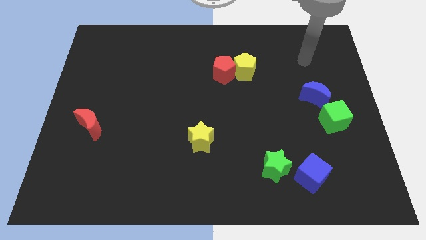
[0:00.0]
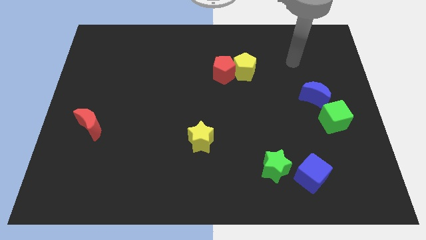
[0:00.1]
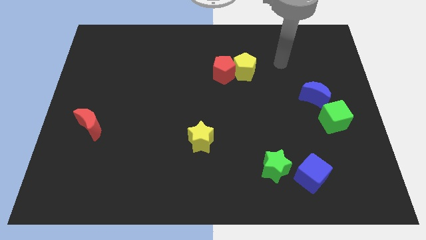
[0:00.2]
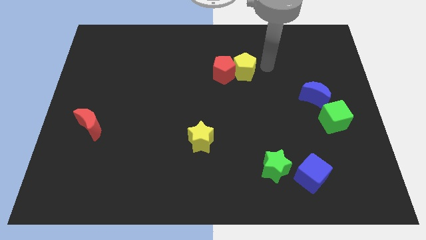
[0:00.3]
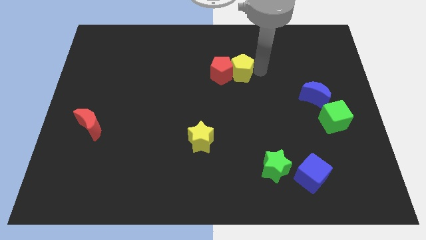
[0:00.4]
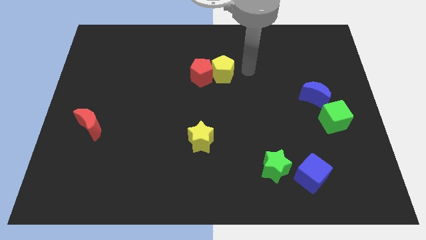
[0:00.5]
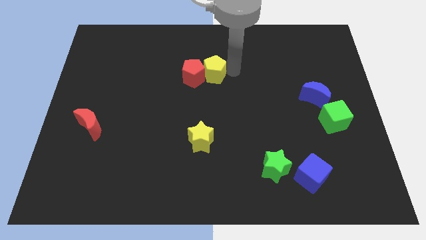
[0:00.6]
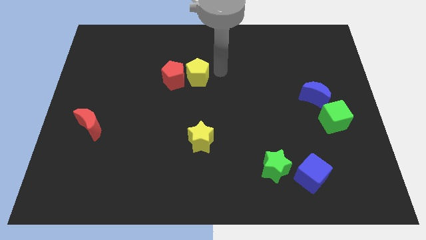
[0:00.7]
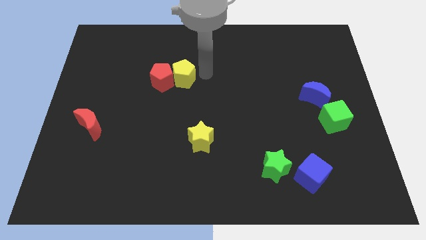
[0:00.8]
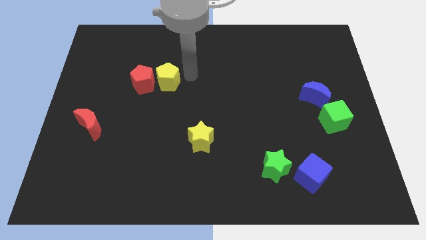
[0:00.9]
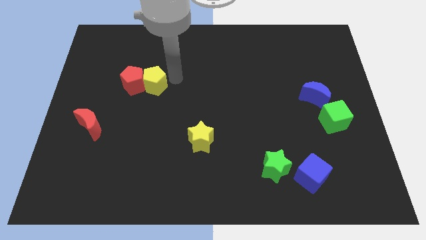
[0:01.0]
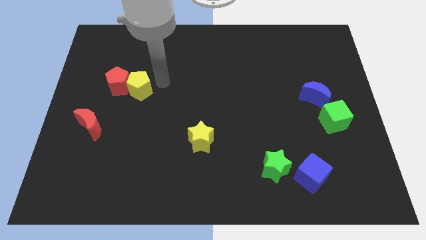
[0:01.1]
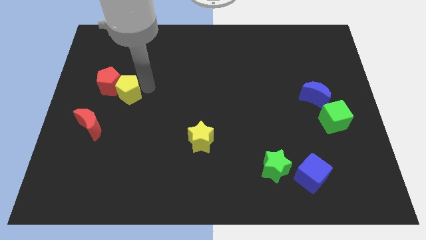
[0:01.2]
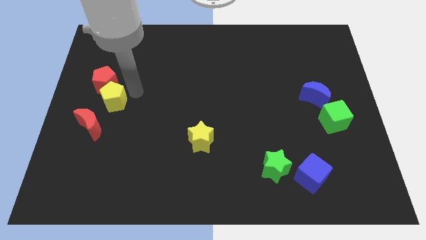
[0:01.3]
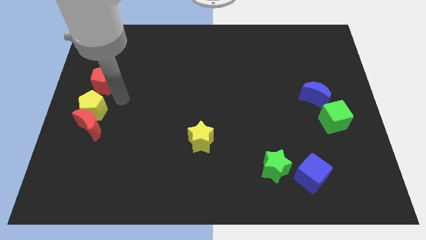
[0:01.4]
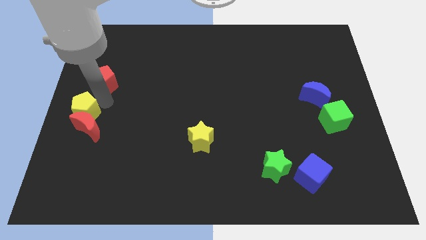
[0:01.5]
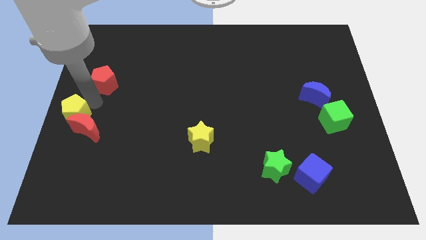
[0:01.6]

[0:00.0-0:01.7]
move the red pentagon away from the yellow pentagon

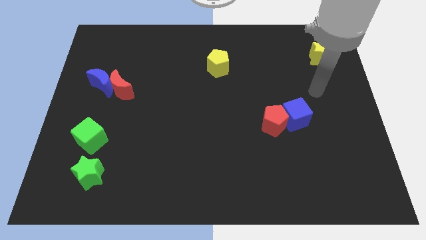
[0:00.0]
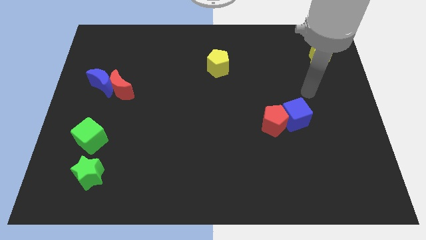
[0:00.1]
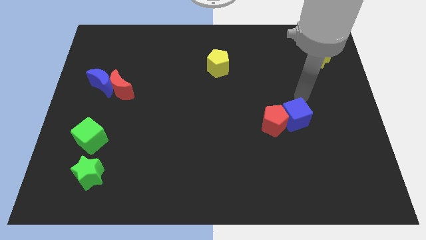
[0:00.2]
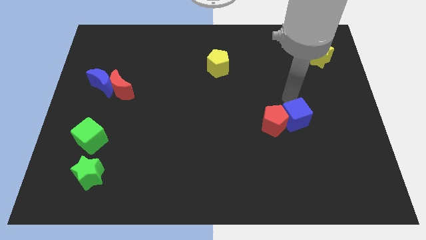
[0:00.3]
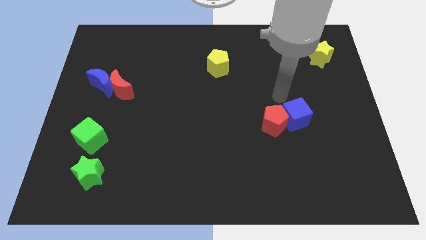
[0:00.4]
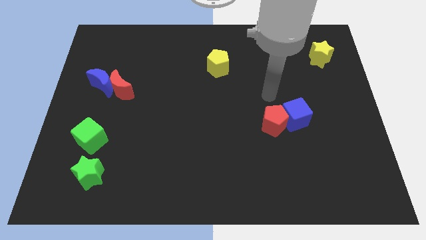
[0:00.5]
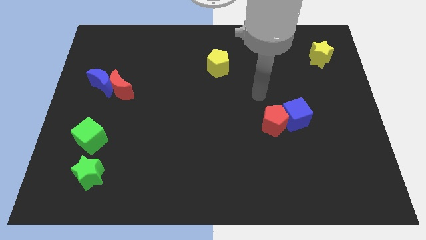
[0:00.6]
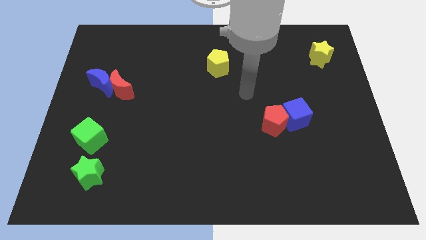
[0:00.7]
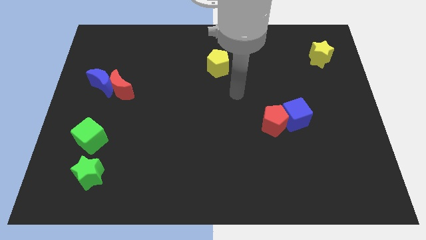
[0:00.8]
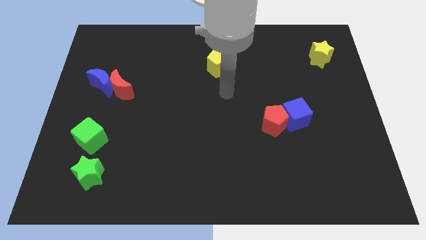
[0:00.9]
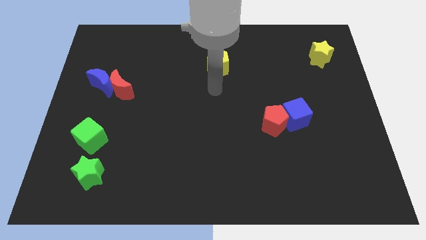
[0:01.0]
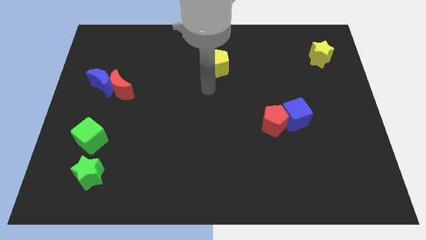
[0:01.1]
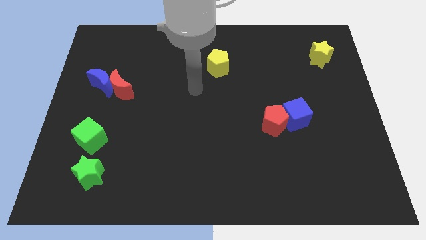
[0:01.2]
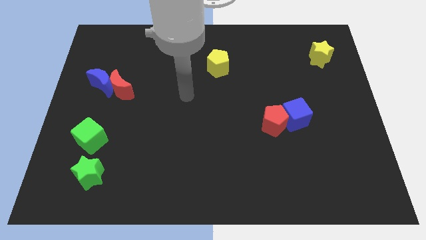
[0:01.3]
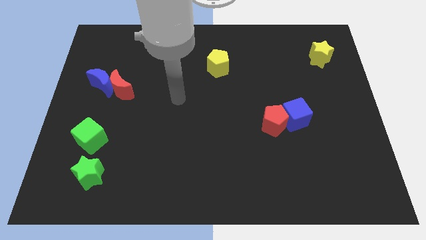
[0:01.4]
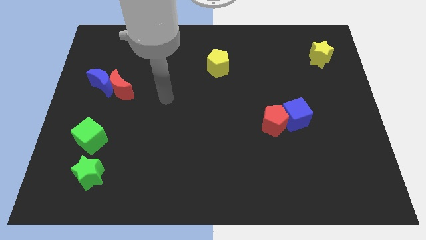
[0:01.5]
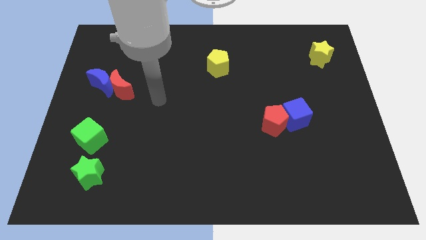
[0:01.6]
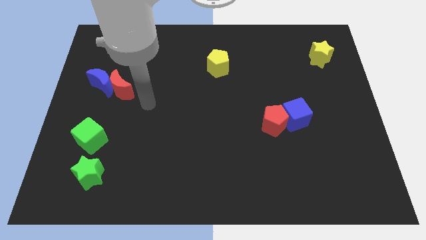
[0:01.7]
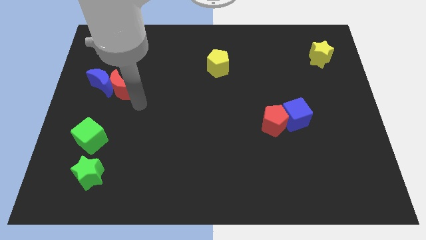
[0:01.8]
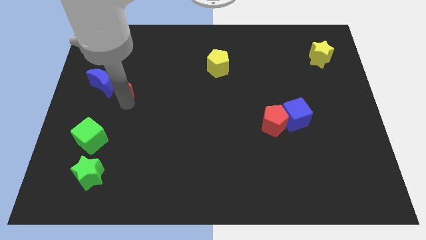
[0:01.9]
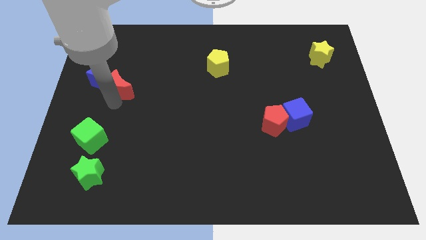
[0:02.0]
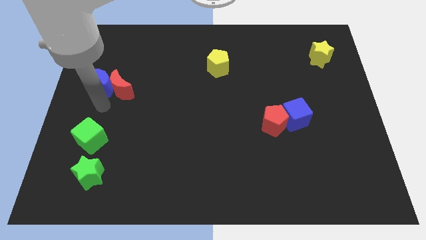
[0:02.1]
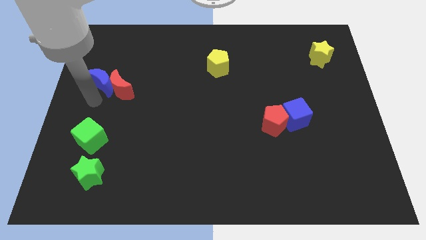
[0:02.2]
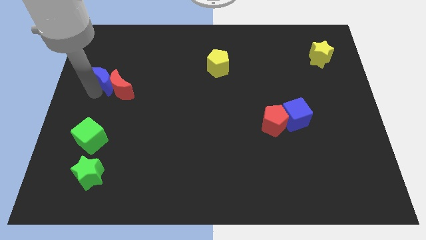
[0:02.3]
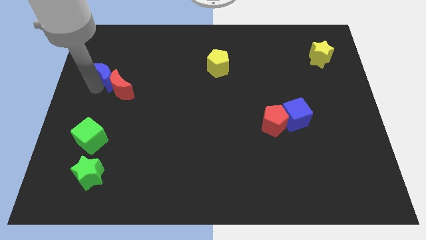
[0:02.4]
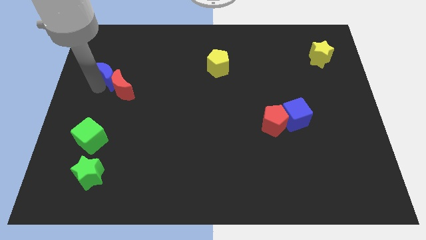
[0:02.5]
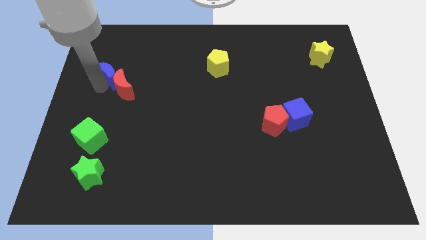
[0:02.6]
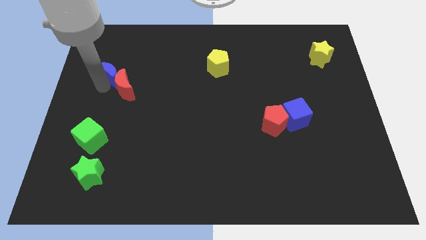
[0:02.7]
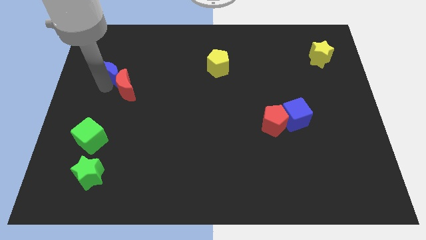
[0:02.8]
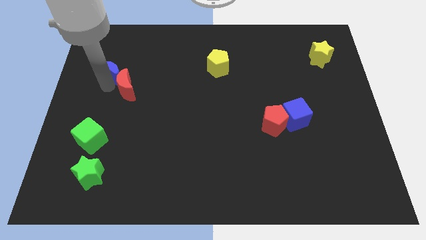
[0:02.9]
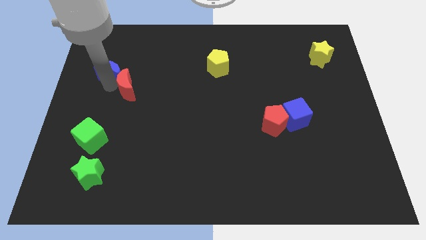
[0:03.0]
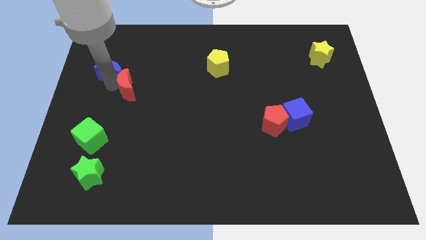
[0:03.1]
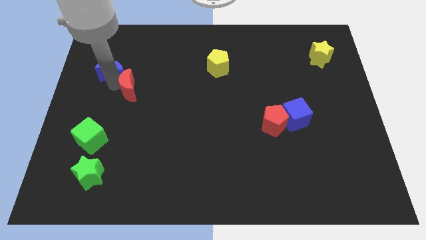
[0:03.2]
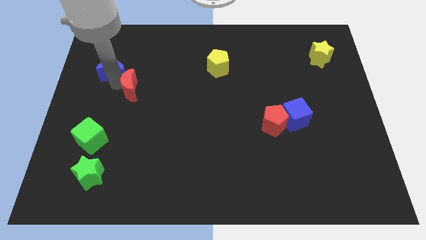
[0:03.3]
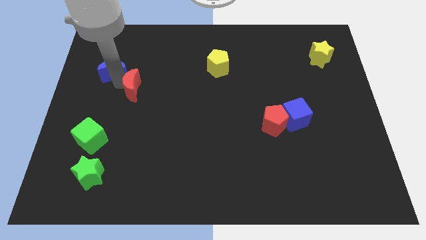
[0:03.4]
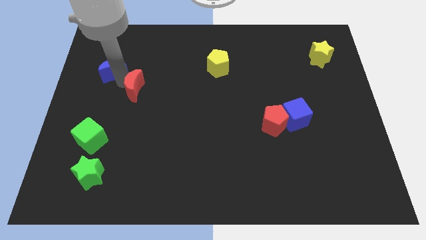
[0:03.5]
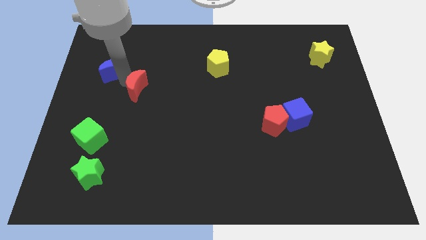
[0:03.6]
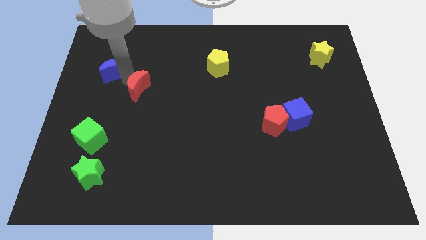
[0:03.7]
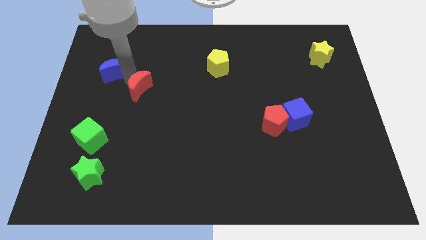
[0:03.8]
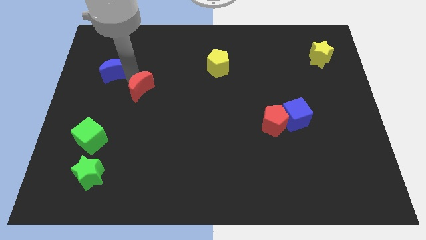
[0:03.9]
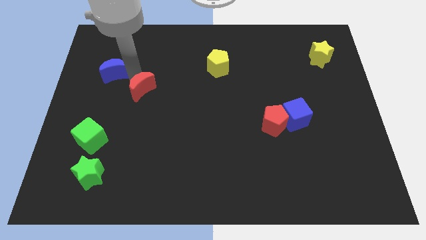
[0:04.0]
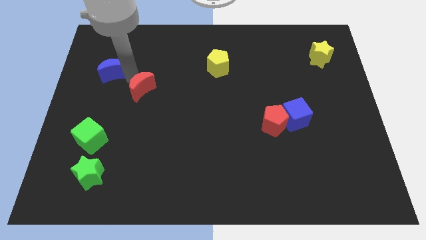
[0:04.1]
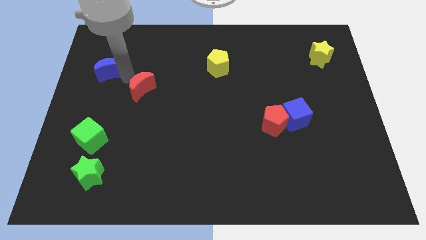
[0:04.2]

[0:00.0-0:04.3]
pull the red moon apart from the blue moon

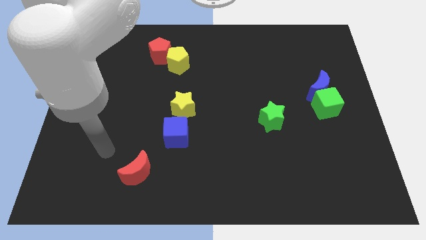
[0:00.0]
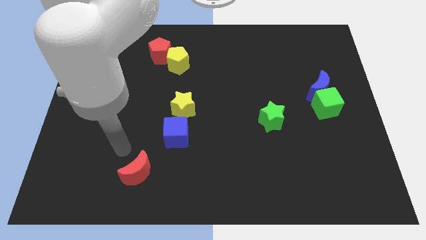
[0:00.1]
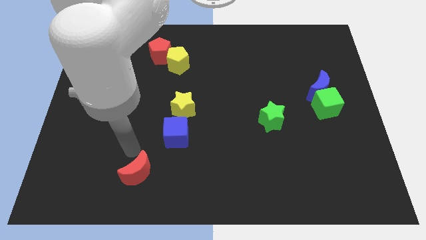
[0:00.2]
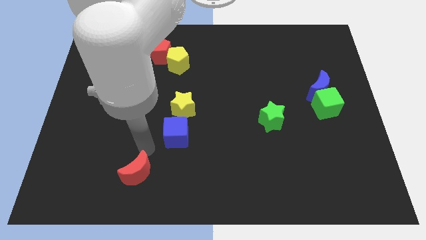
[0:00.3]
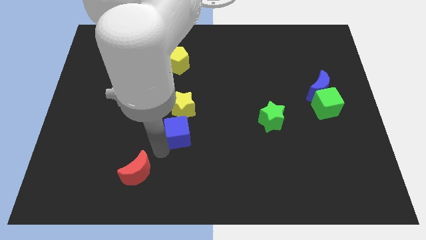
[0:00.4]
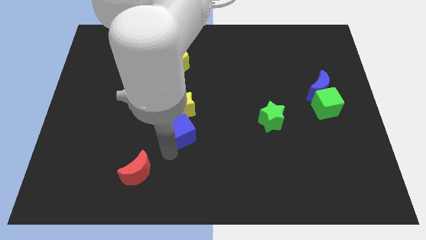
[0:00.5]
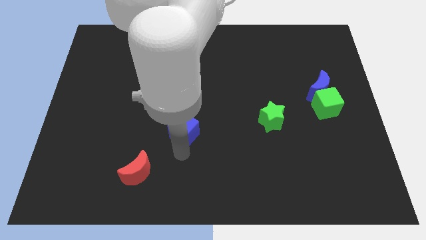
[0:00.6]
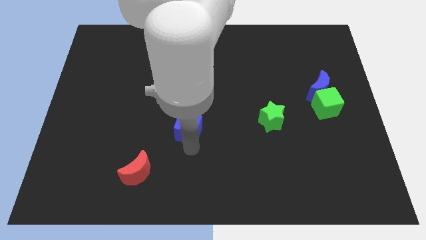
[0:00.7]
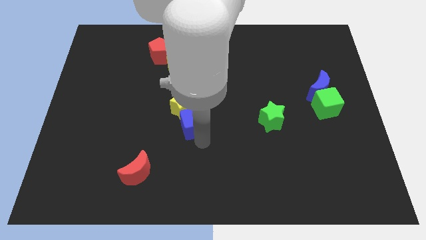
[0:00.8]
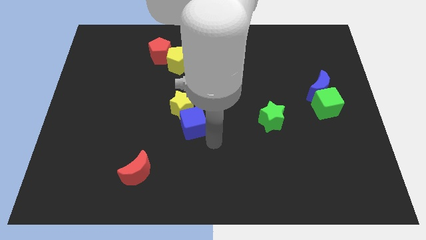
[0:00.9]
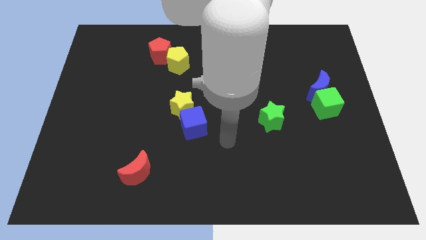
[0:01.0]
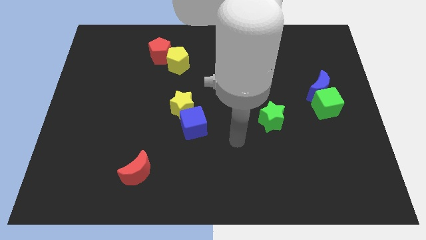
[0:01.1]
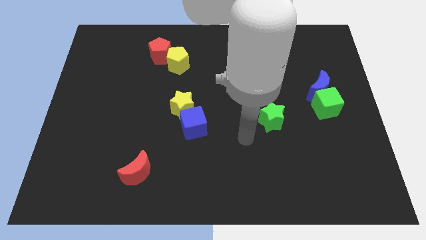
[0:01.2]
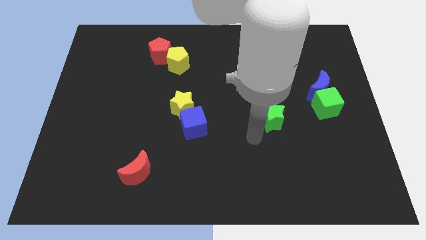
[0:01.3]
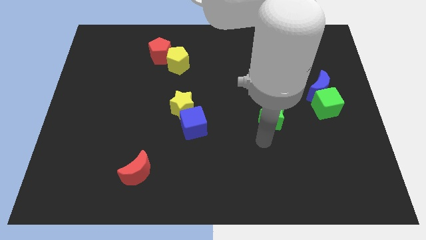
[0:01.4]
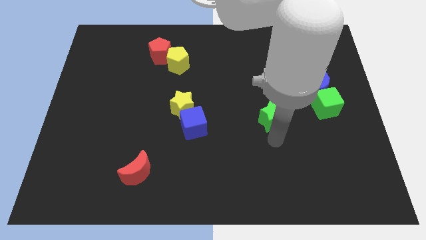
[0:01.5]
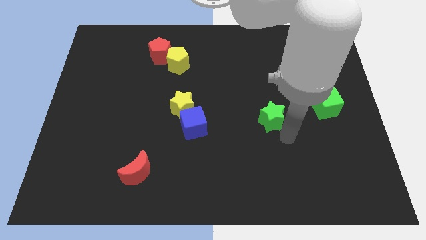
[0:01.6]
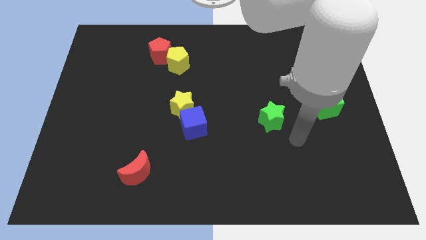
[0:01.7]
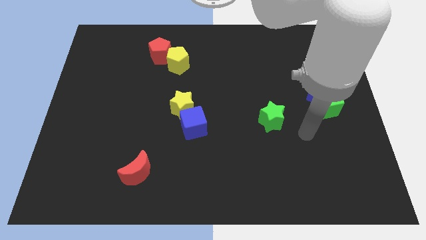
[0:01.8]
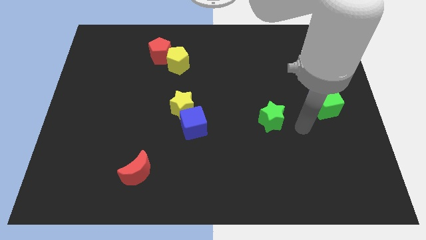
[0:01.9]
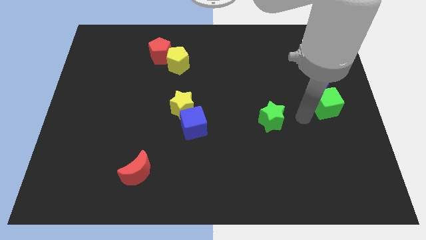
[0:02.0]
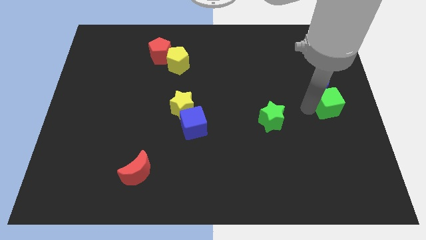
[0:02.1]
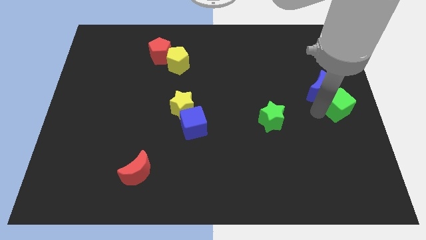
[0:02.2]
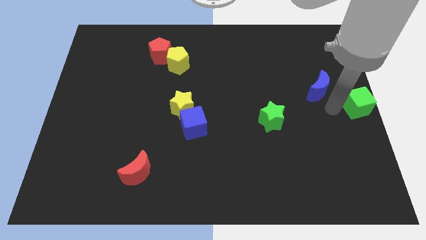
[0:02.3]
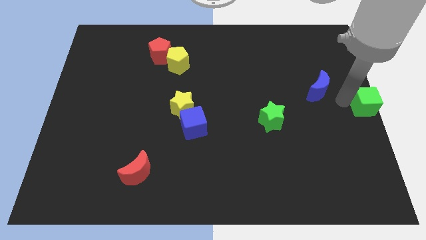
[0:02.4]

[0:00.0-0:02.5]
move the blue moon away from the green cube

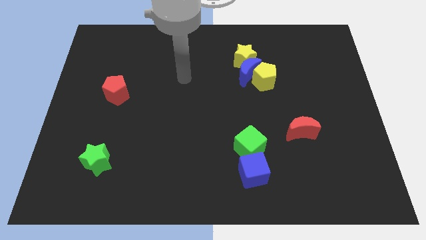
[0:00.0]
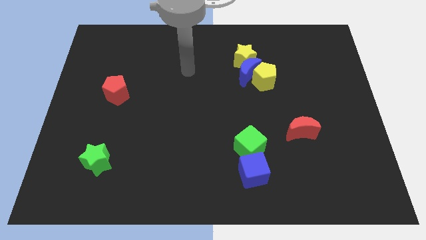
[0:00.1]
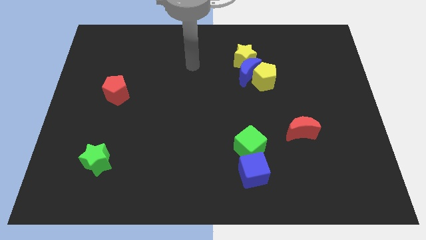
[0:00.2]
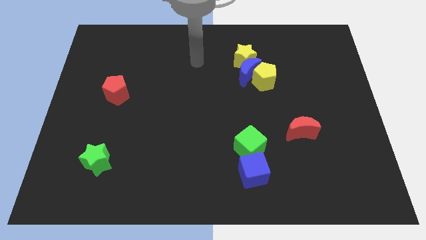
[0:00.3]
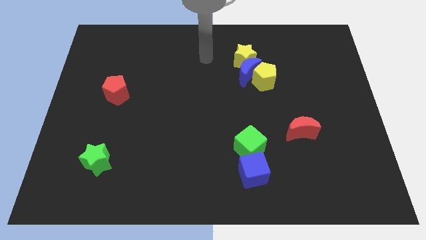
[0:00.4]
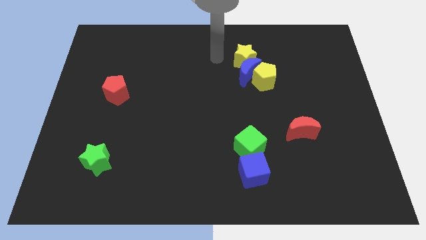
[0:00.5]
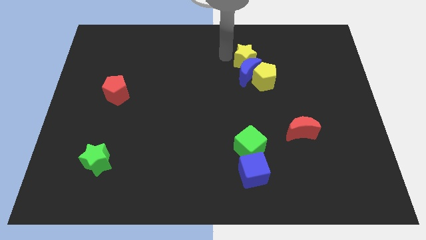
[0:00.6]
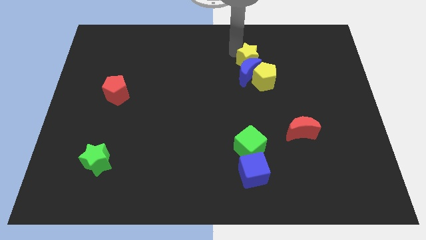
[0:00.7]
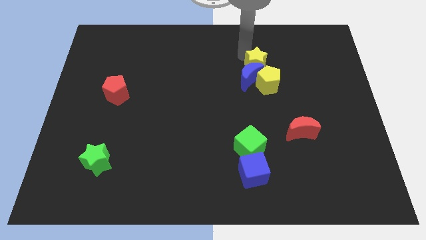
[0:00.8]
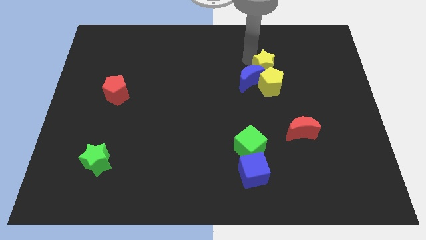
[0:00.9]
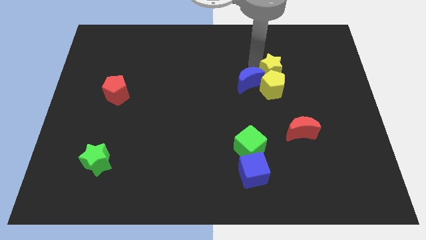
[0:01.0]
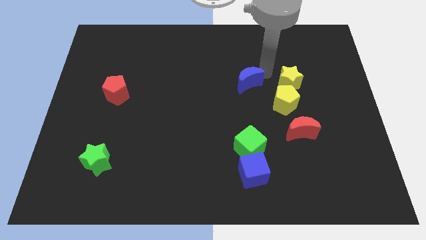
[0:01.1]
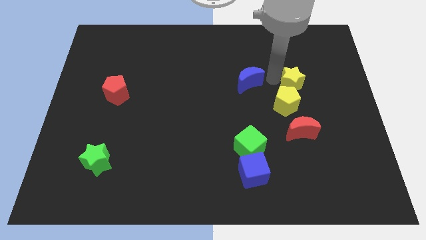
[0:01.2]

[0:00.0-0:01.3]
pull the blue moon apart from the yellow pentagon and yellow star
